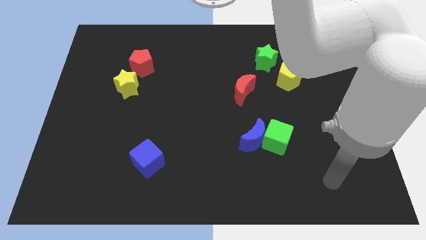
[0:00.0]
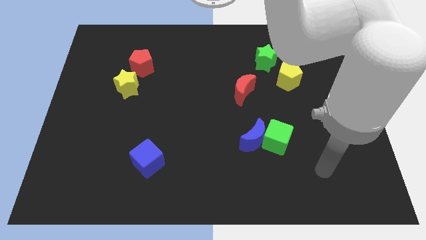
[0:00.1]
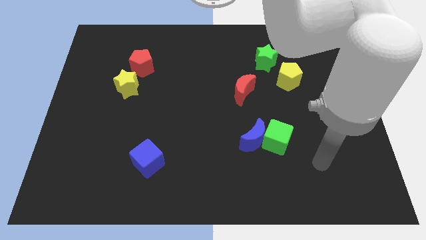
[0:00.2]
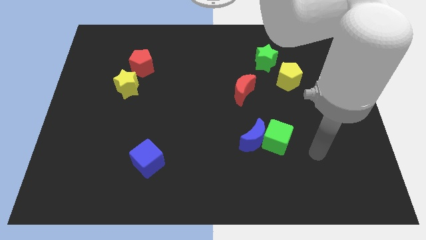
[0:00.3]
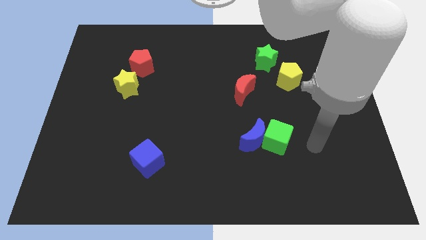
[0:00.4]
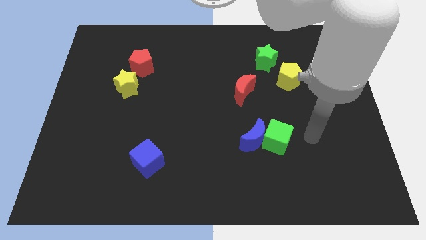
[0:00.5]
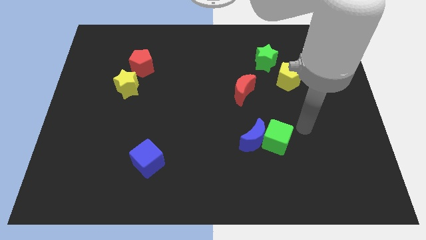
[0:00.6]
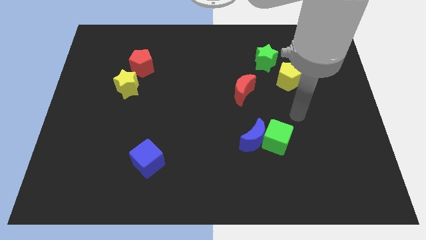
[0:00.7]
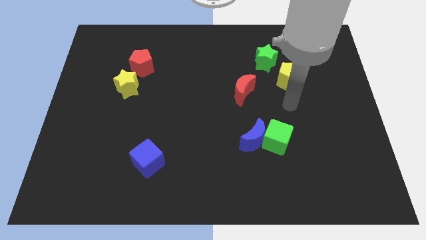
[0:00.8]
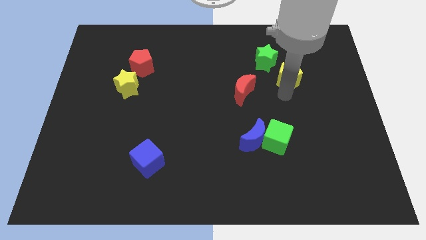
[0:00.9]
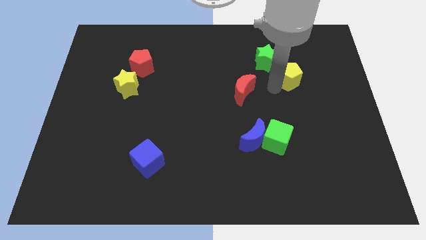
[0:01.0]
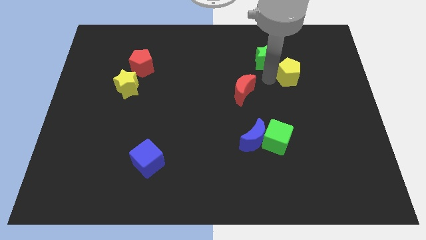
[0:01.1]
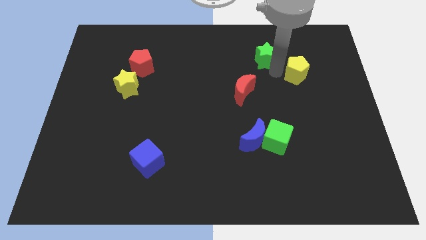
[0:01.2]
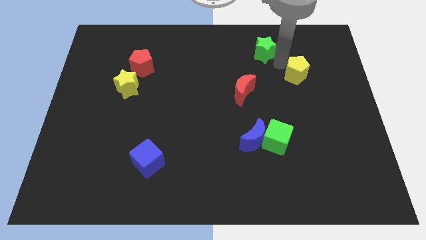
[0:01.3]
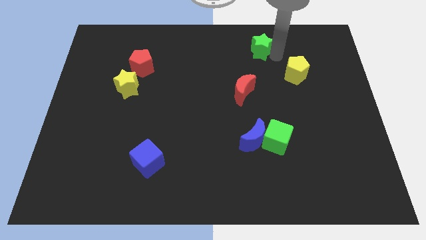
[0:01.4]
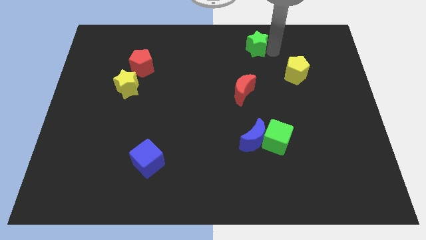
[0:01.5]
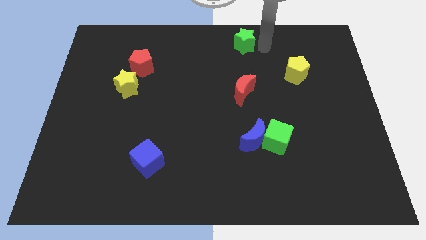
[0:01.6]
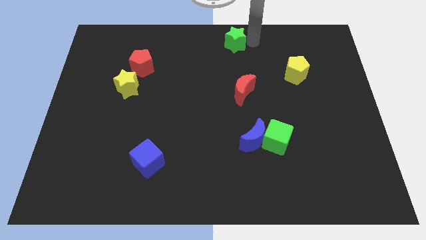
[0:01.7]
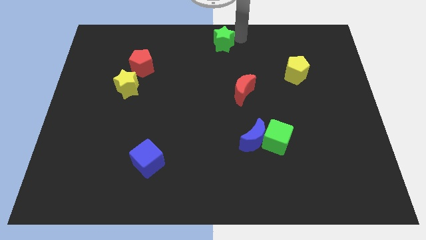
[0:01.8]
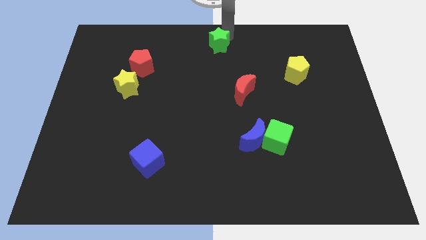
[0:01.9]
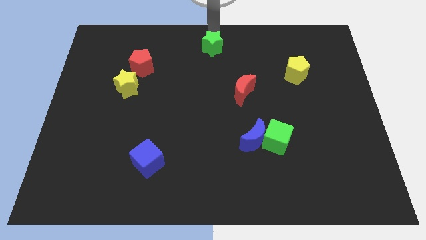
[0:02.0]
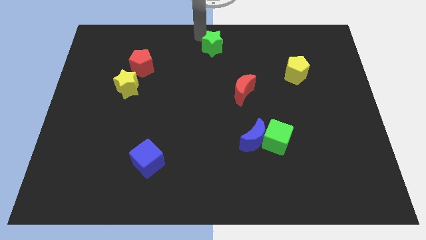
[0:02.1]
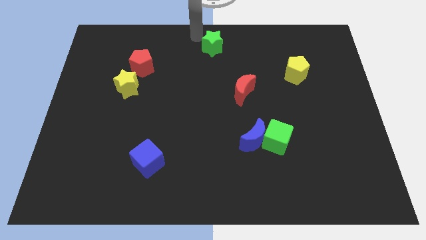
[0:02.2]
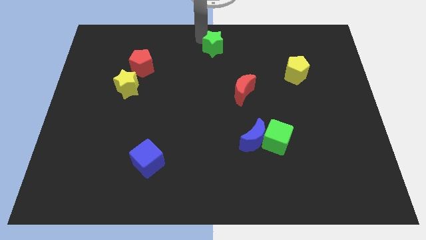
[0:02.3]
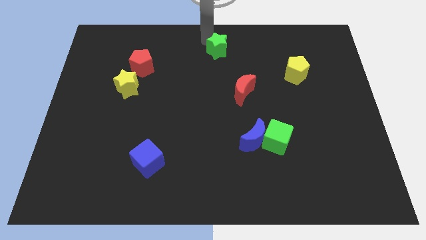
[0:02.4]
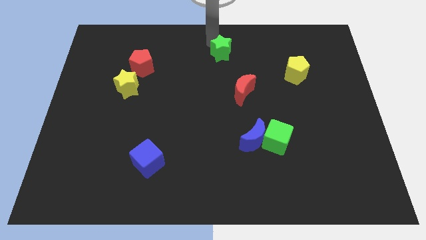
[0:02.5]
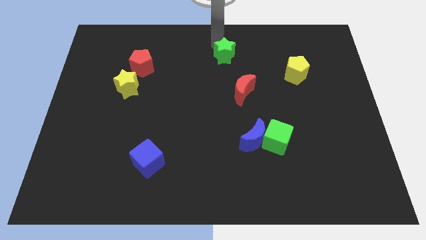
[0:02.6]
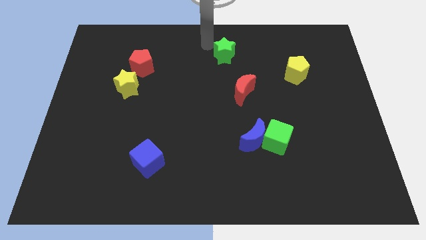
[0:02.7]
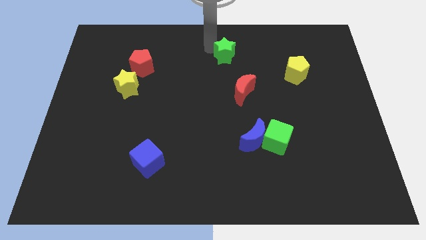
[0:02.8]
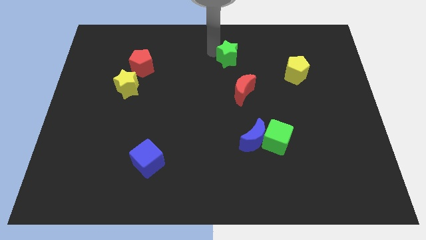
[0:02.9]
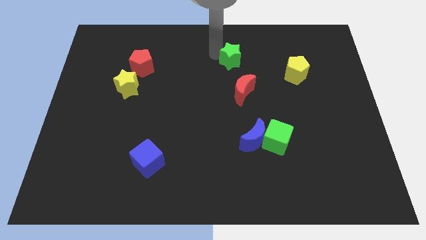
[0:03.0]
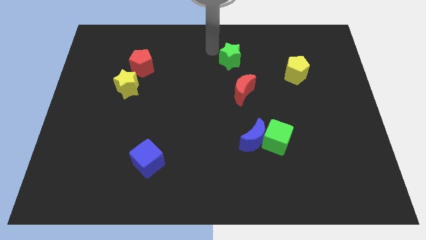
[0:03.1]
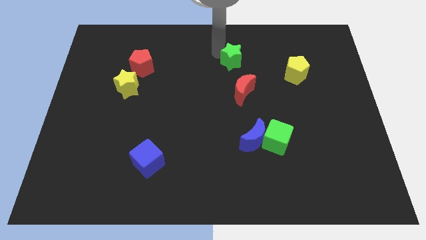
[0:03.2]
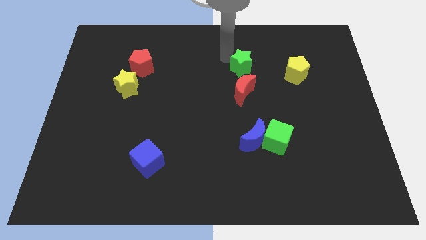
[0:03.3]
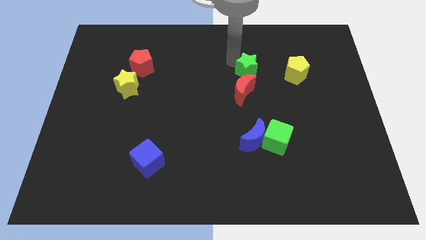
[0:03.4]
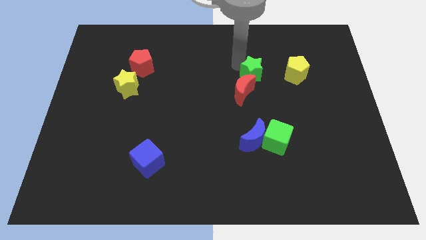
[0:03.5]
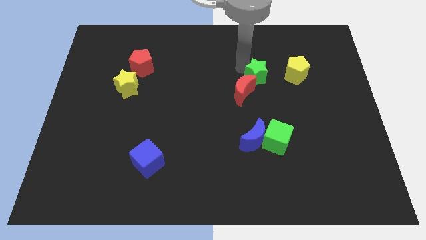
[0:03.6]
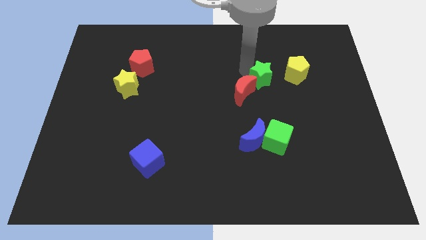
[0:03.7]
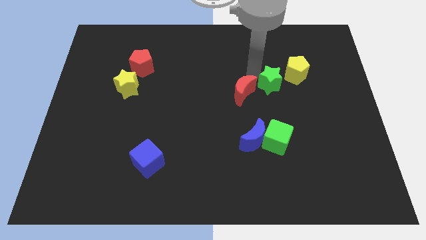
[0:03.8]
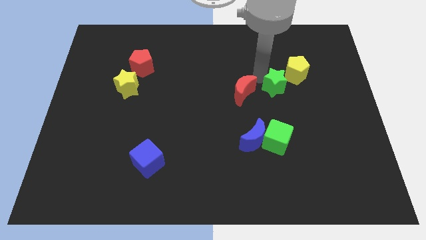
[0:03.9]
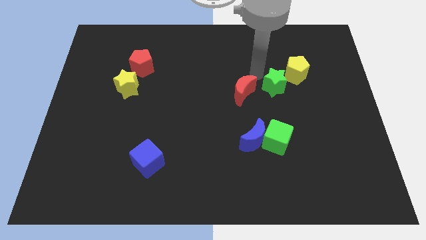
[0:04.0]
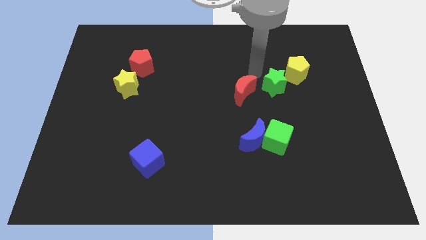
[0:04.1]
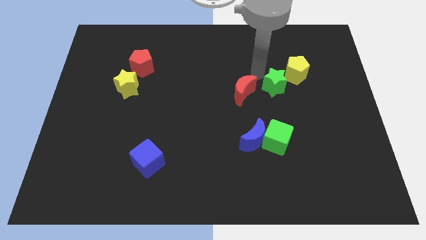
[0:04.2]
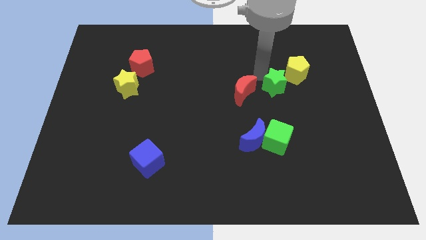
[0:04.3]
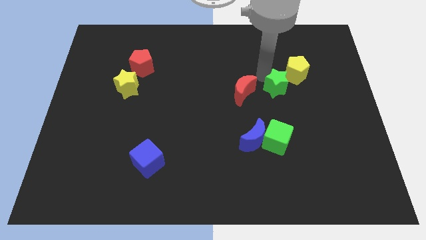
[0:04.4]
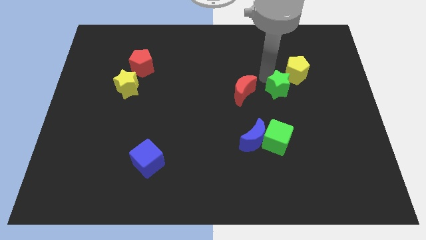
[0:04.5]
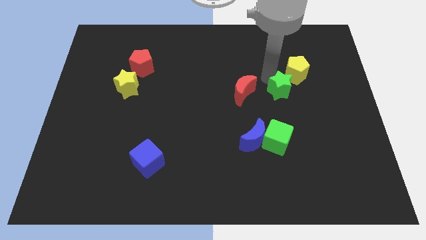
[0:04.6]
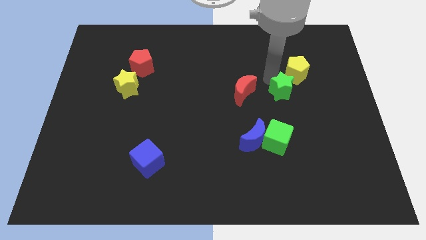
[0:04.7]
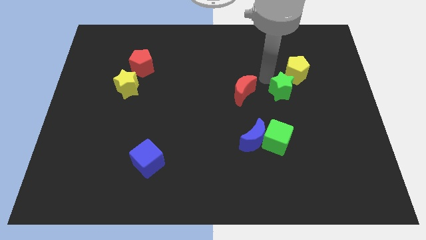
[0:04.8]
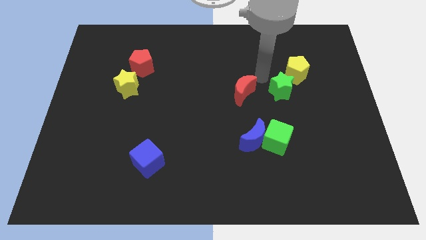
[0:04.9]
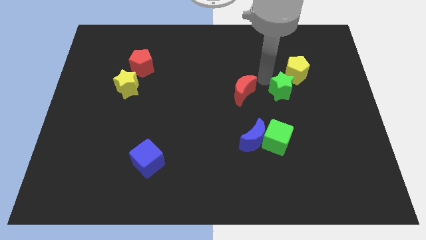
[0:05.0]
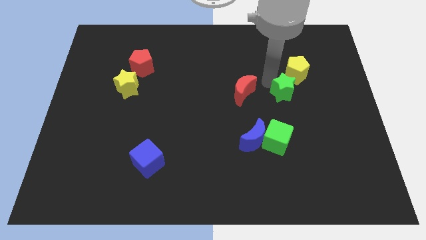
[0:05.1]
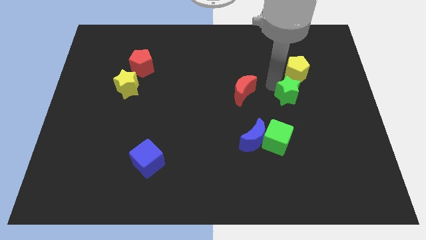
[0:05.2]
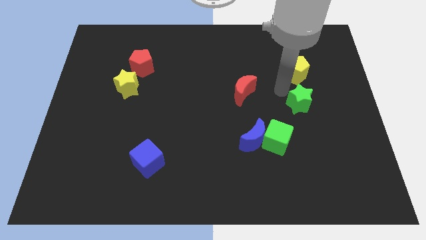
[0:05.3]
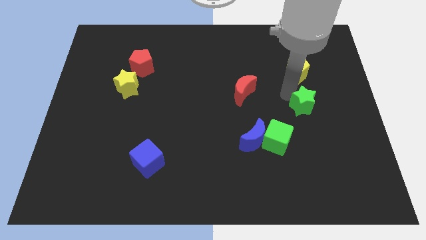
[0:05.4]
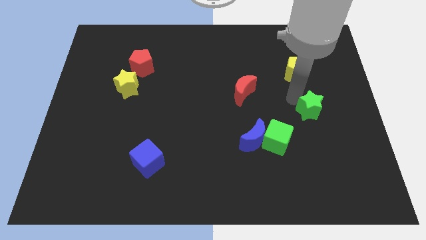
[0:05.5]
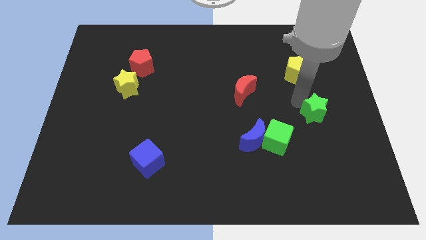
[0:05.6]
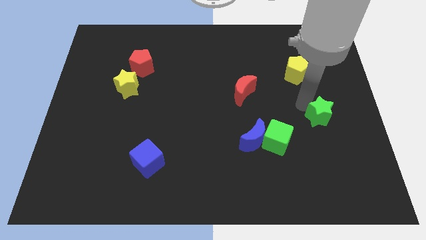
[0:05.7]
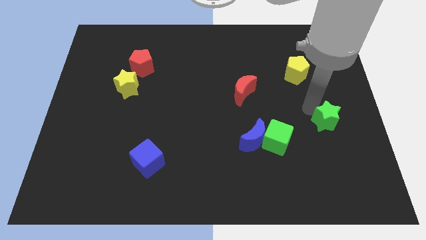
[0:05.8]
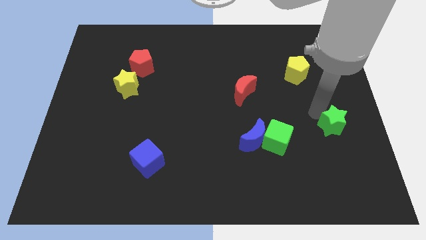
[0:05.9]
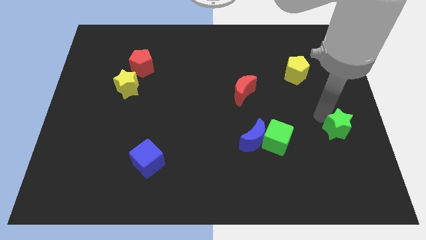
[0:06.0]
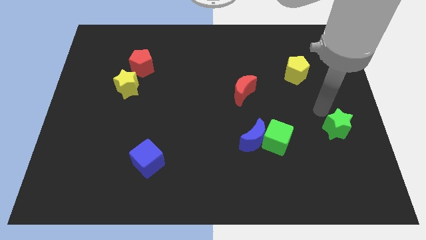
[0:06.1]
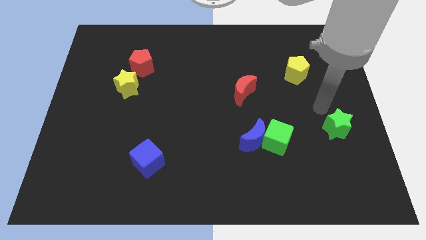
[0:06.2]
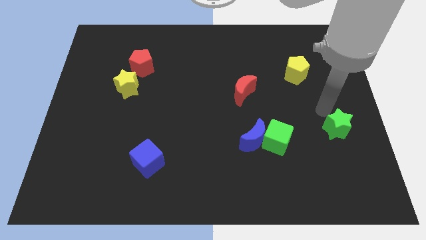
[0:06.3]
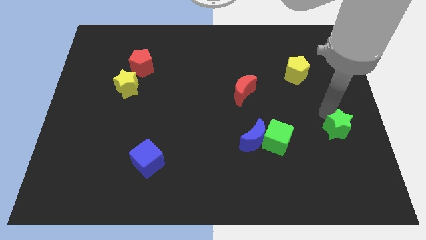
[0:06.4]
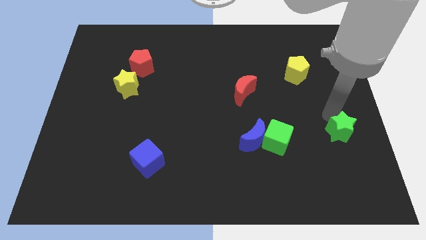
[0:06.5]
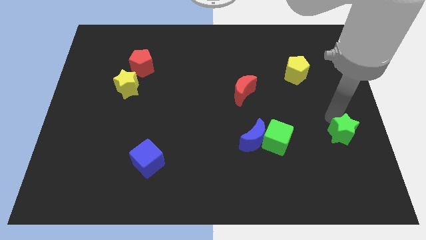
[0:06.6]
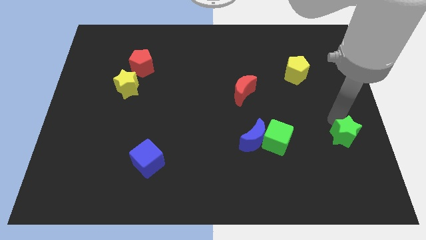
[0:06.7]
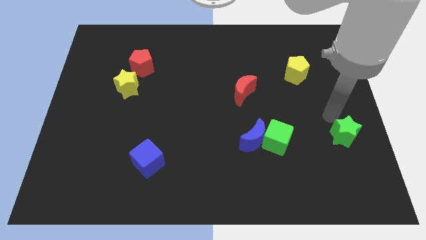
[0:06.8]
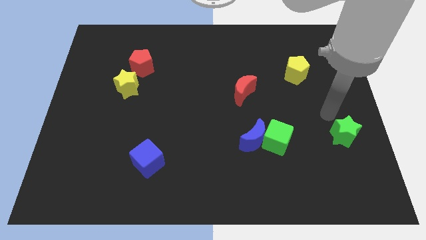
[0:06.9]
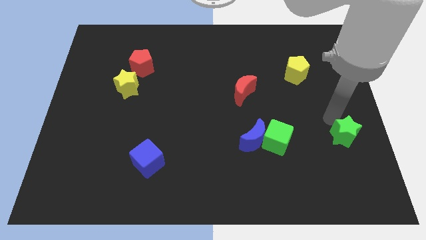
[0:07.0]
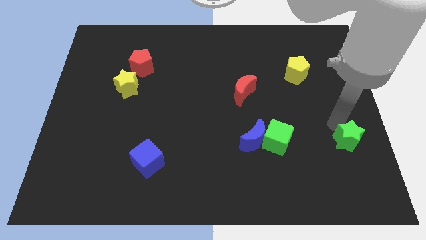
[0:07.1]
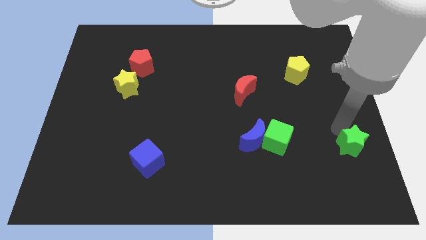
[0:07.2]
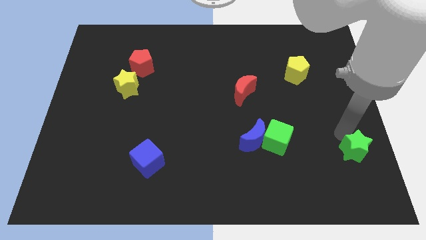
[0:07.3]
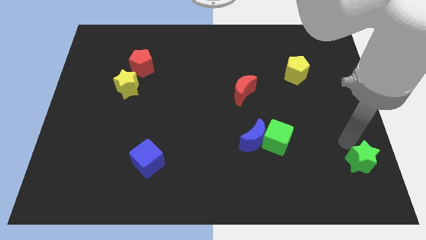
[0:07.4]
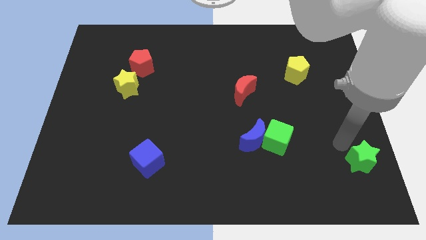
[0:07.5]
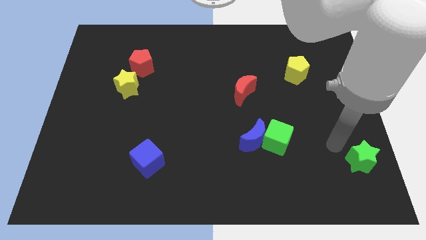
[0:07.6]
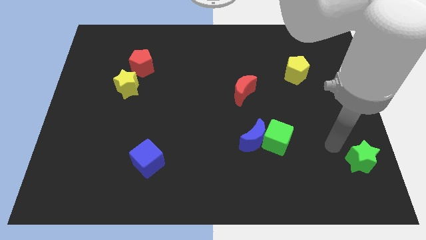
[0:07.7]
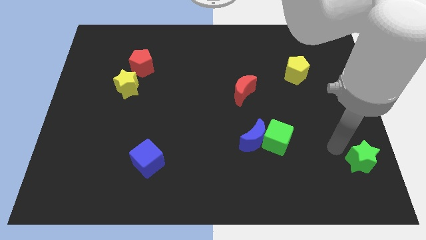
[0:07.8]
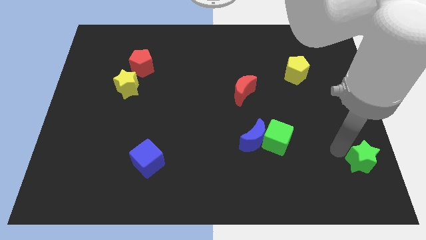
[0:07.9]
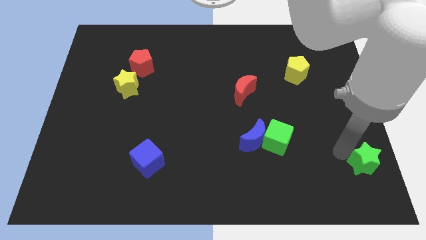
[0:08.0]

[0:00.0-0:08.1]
push the green star to the bottom right of the board
